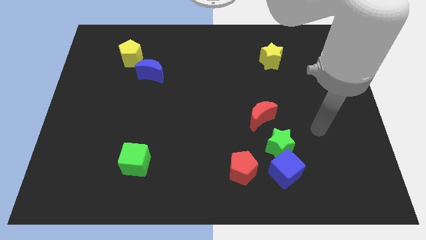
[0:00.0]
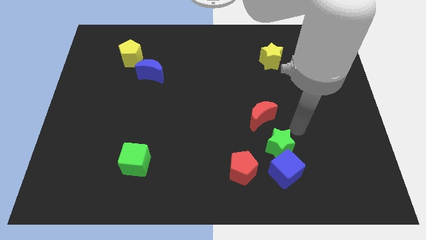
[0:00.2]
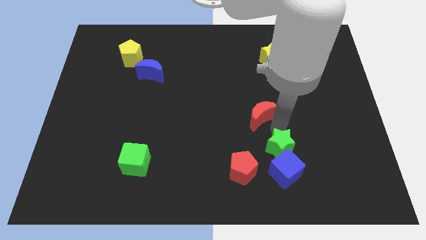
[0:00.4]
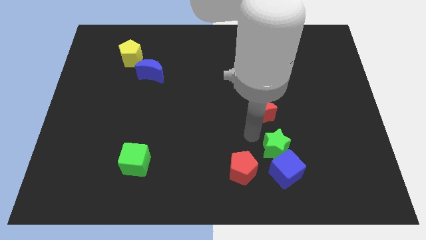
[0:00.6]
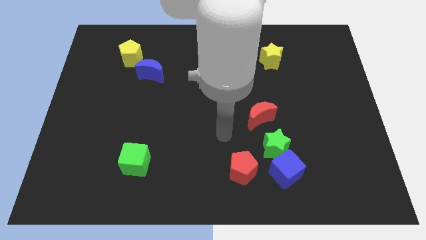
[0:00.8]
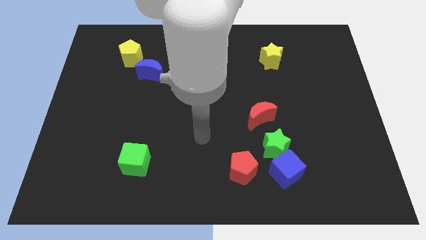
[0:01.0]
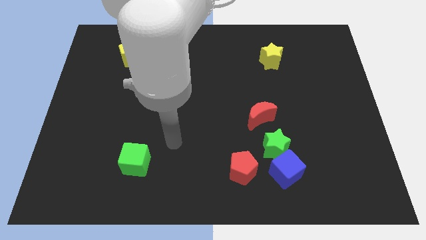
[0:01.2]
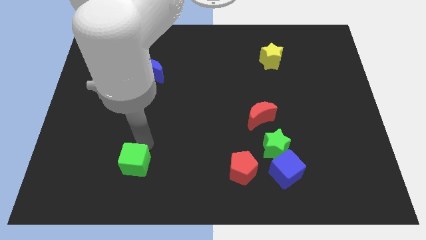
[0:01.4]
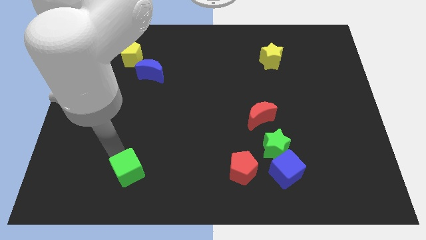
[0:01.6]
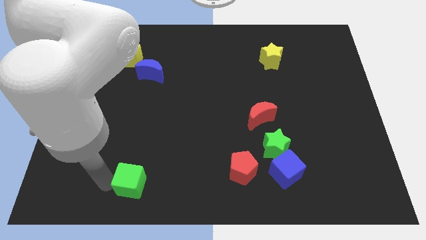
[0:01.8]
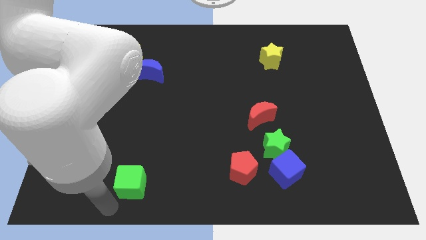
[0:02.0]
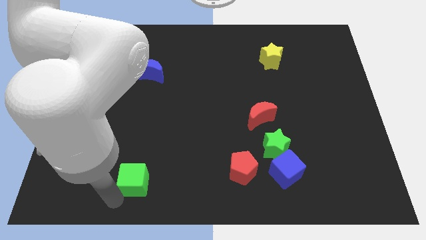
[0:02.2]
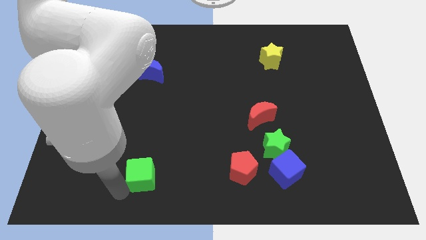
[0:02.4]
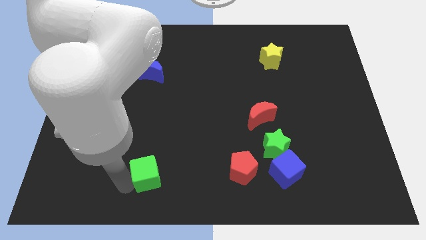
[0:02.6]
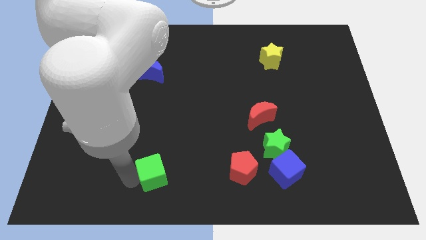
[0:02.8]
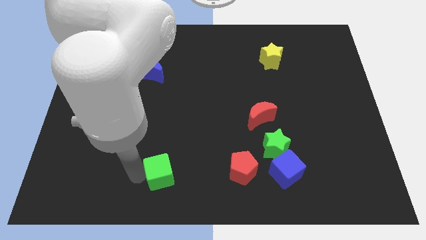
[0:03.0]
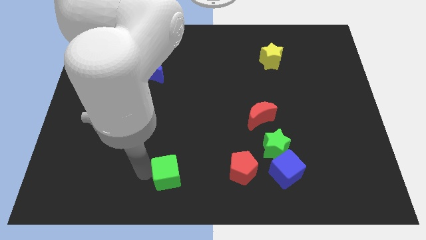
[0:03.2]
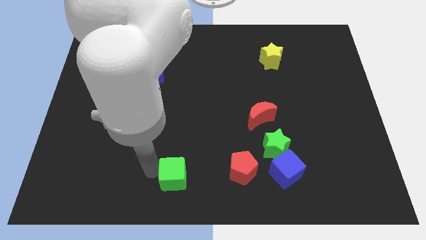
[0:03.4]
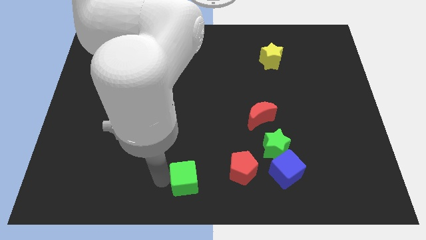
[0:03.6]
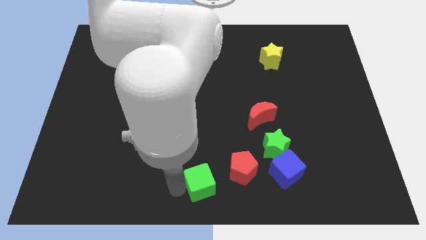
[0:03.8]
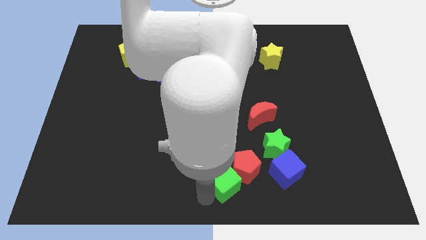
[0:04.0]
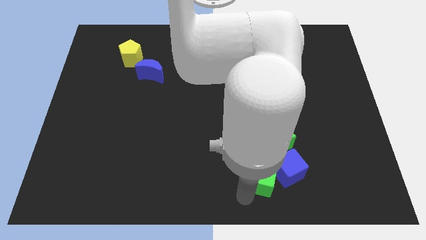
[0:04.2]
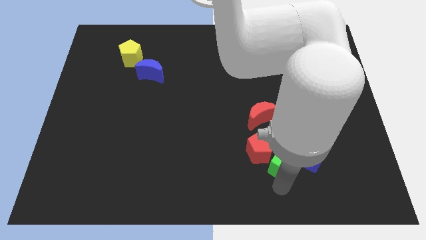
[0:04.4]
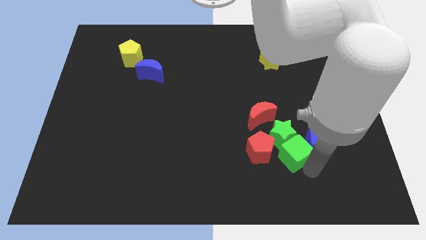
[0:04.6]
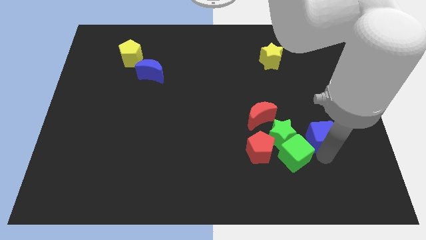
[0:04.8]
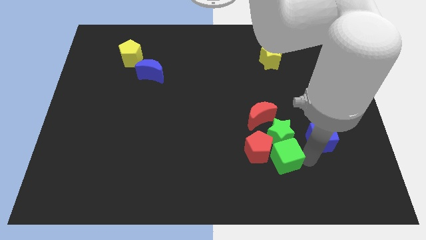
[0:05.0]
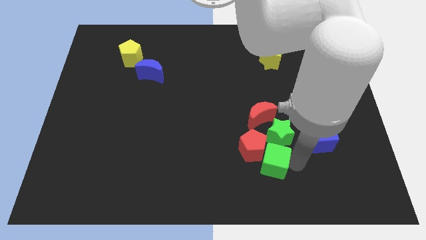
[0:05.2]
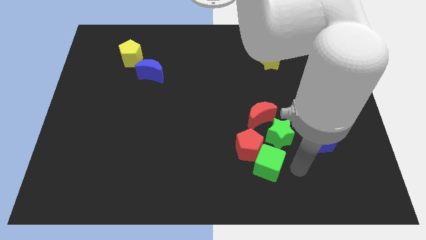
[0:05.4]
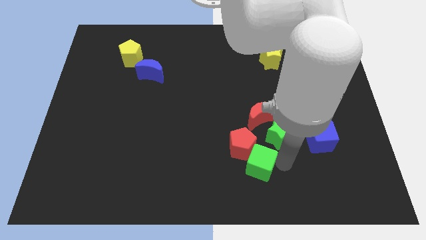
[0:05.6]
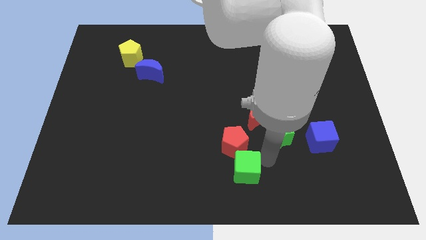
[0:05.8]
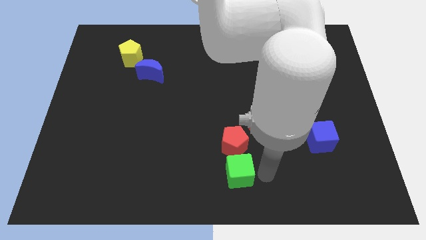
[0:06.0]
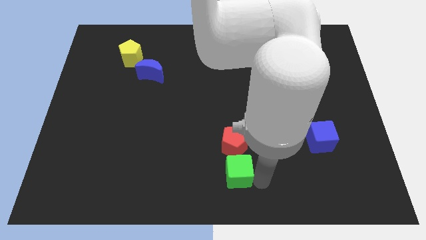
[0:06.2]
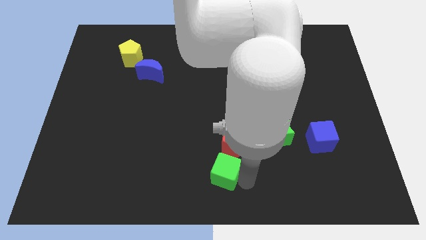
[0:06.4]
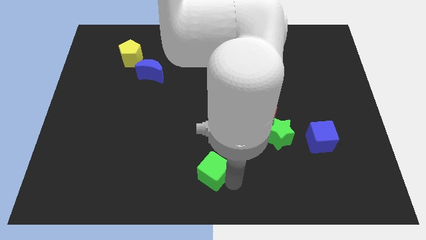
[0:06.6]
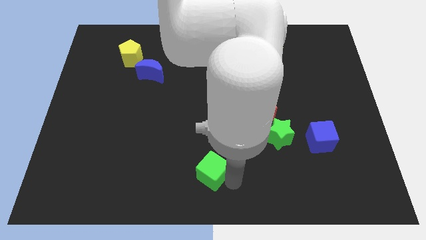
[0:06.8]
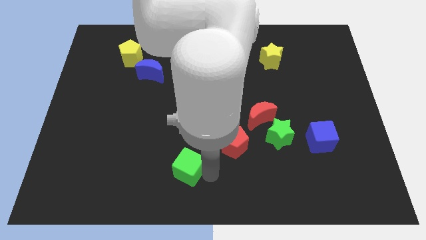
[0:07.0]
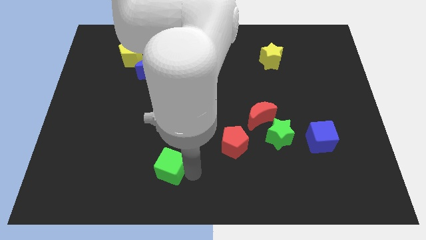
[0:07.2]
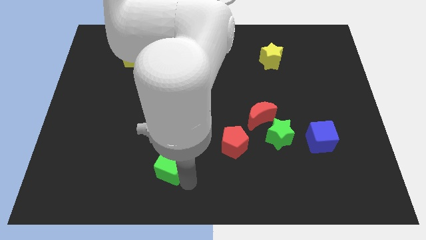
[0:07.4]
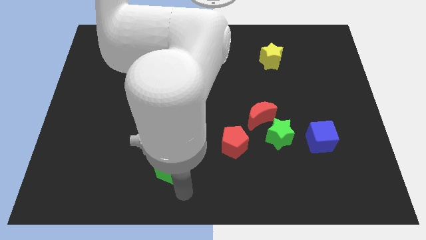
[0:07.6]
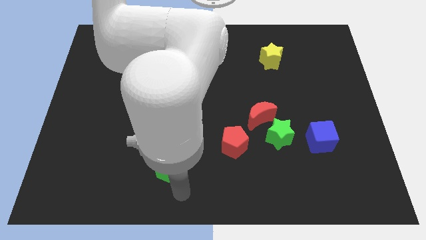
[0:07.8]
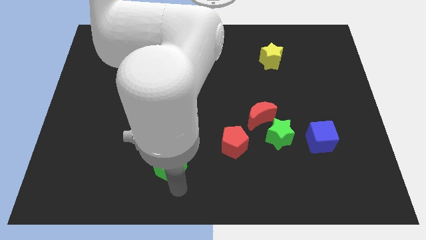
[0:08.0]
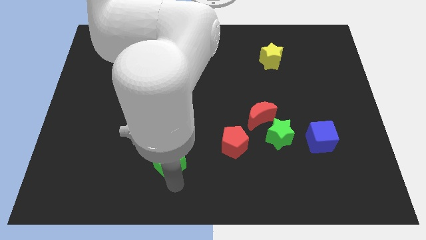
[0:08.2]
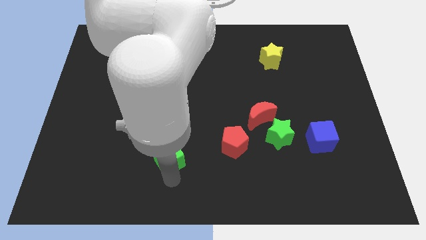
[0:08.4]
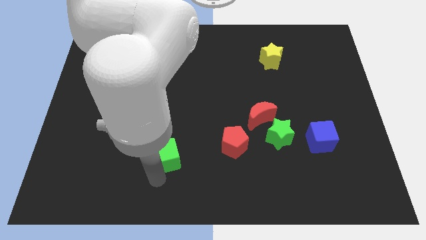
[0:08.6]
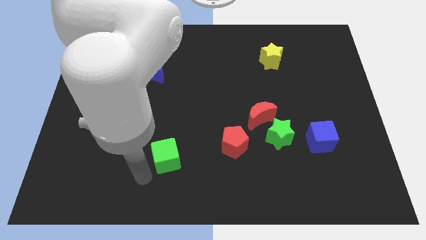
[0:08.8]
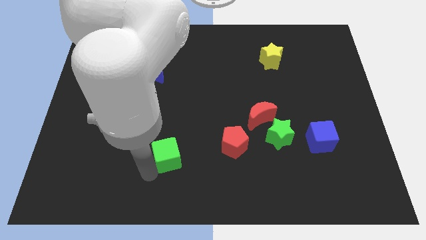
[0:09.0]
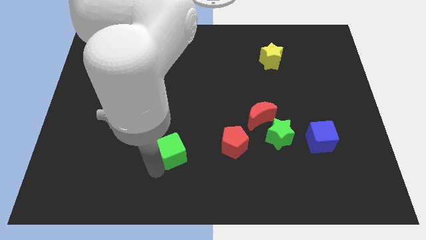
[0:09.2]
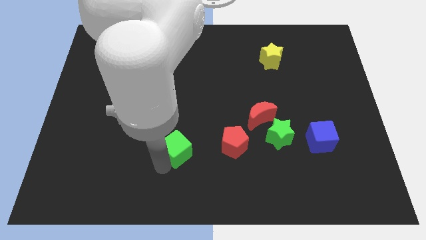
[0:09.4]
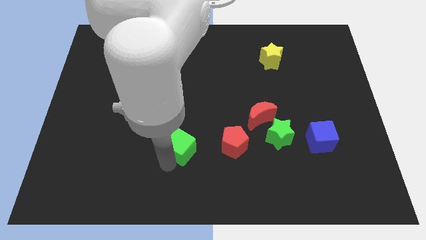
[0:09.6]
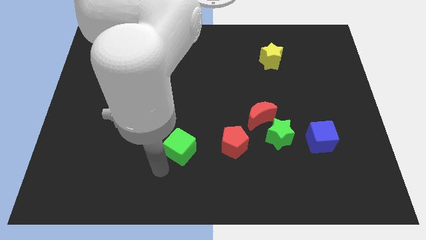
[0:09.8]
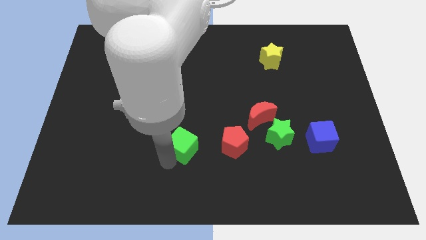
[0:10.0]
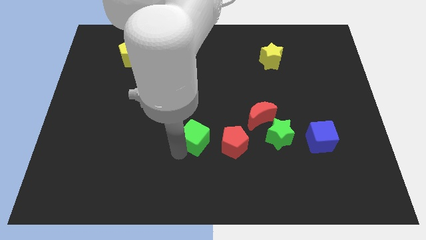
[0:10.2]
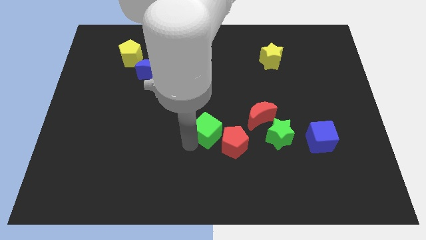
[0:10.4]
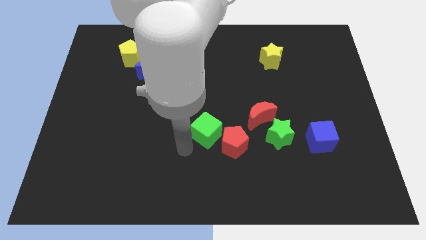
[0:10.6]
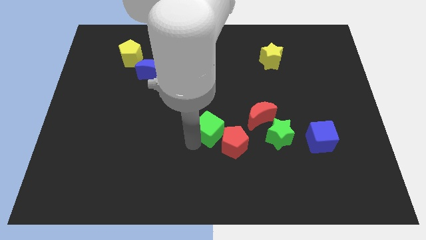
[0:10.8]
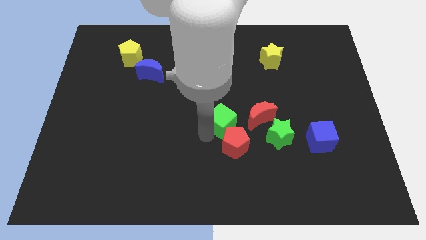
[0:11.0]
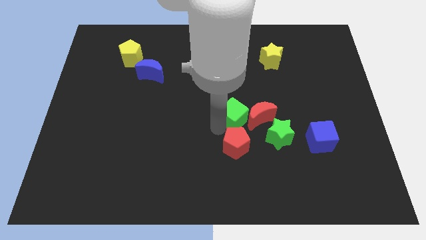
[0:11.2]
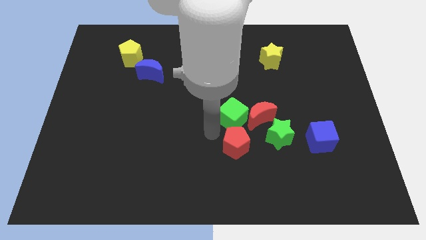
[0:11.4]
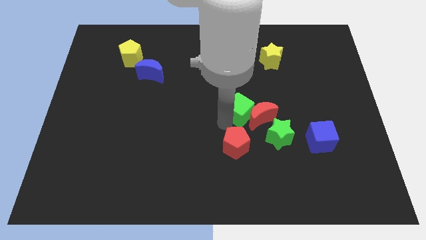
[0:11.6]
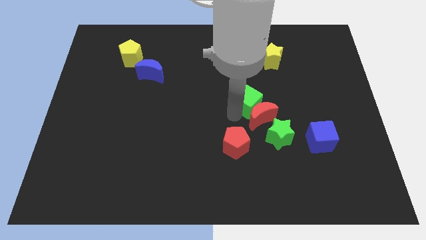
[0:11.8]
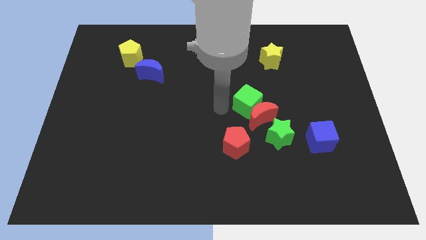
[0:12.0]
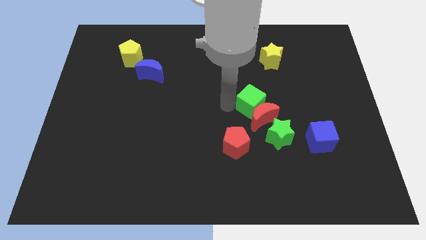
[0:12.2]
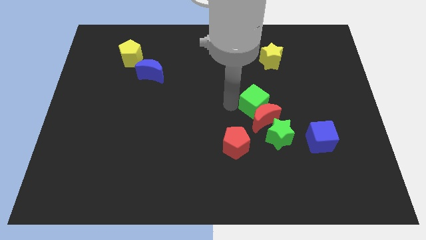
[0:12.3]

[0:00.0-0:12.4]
push the green cube to the top right of the red moon
